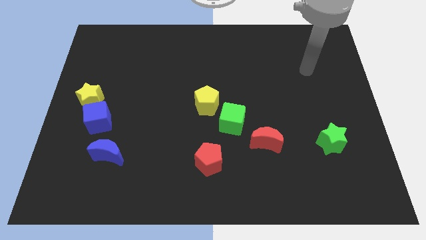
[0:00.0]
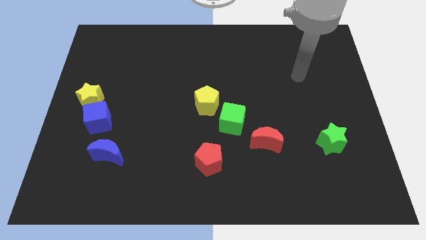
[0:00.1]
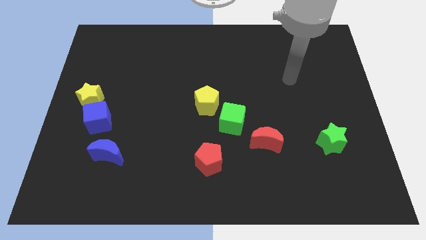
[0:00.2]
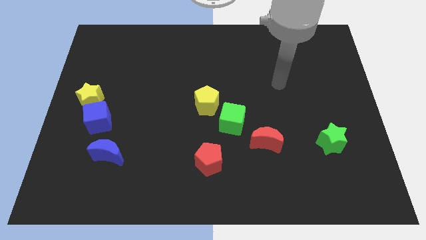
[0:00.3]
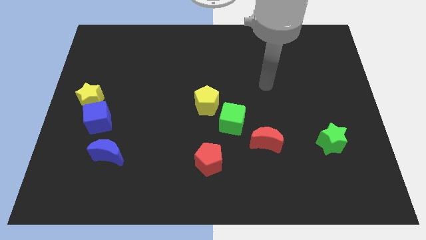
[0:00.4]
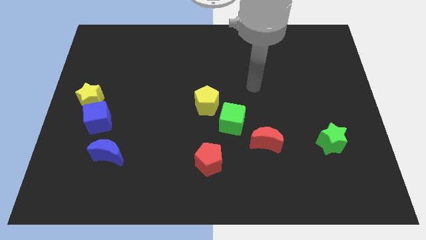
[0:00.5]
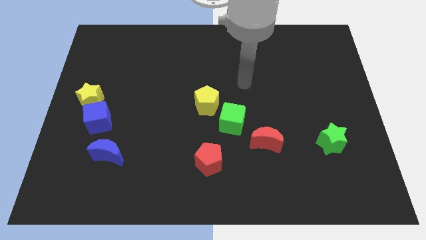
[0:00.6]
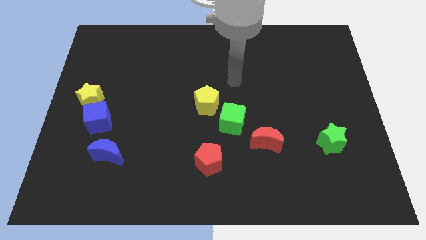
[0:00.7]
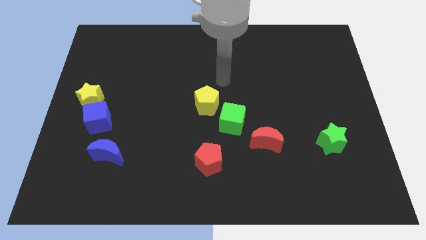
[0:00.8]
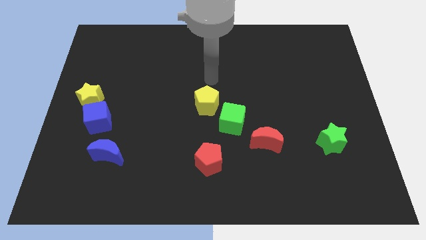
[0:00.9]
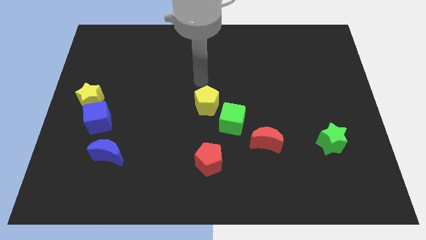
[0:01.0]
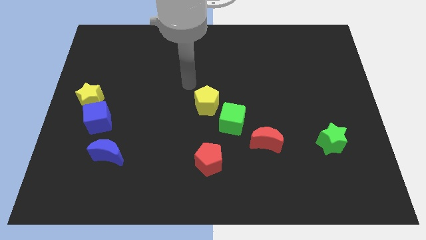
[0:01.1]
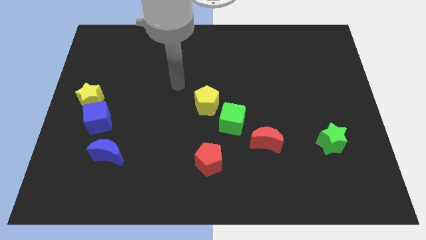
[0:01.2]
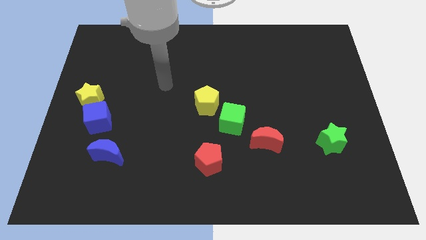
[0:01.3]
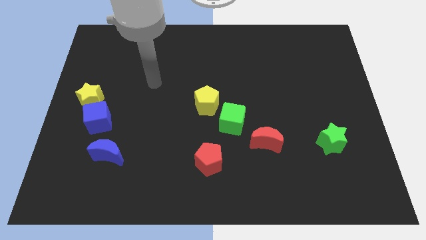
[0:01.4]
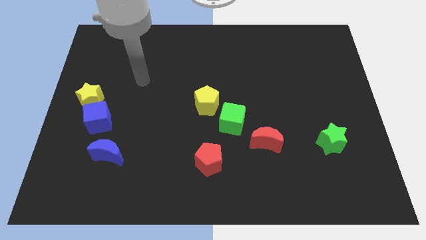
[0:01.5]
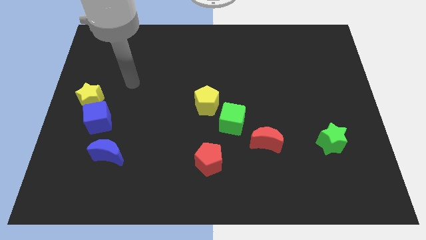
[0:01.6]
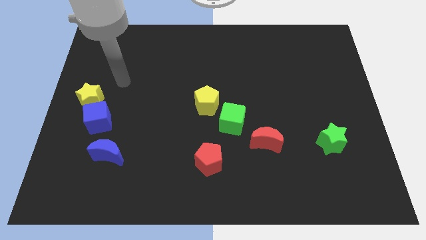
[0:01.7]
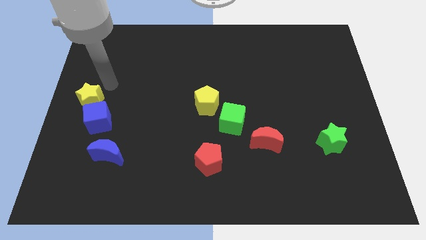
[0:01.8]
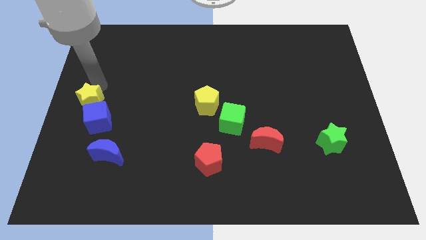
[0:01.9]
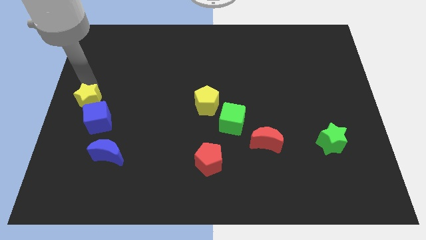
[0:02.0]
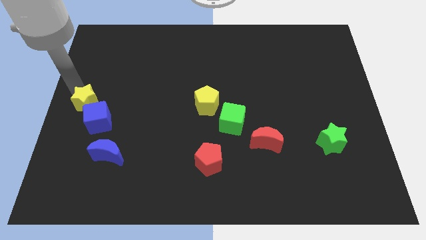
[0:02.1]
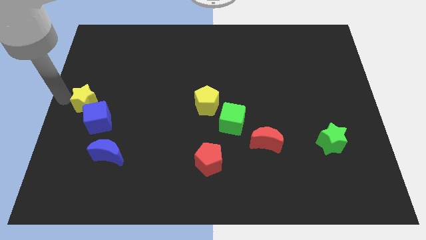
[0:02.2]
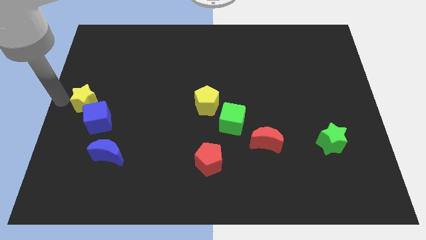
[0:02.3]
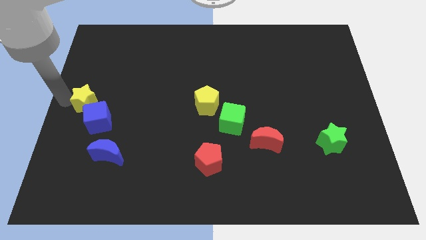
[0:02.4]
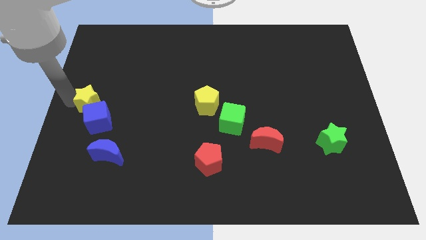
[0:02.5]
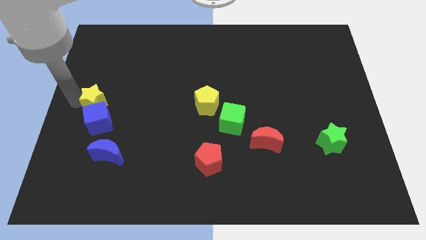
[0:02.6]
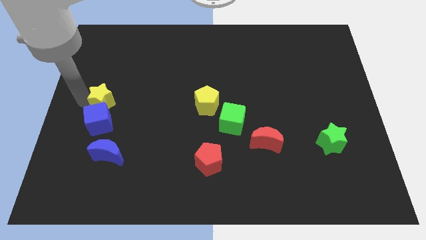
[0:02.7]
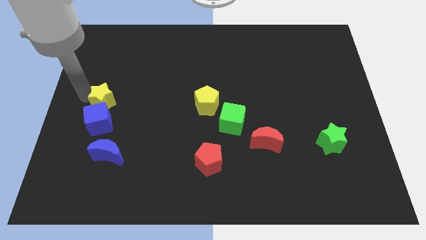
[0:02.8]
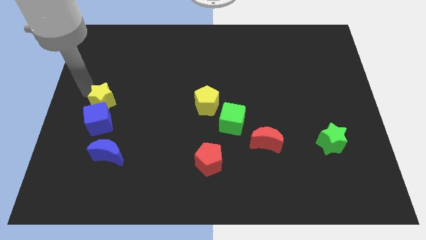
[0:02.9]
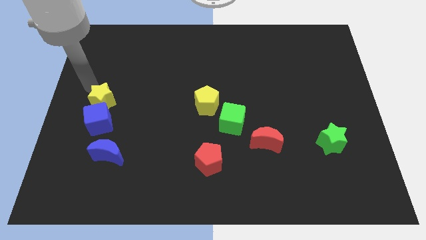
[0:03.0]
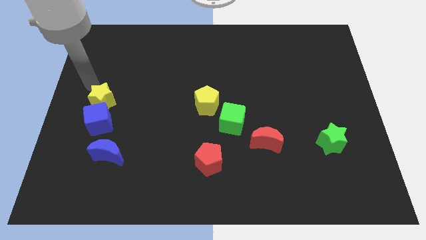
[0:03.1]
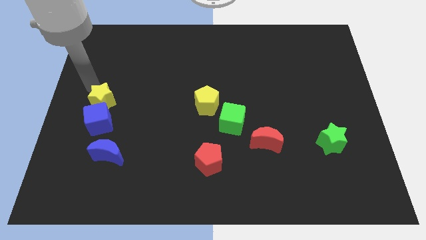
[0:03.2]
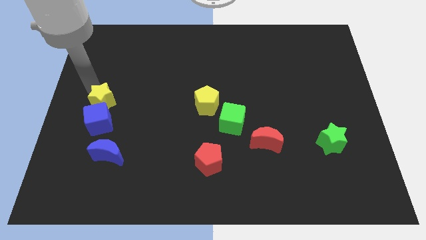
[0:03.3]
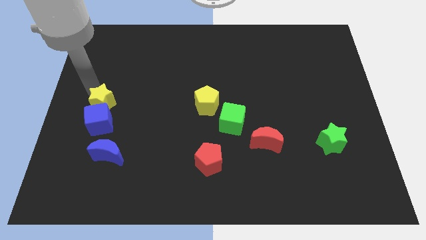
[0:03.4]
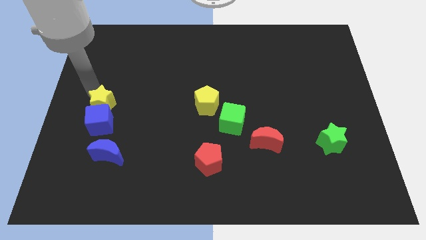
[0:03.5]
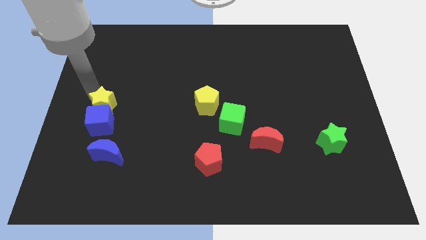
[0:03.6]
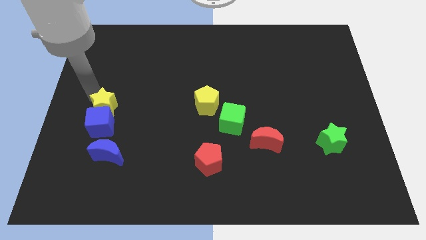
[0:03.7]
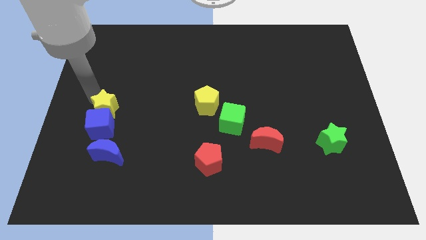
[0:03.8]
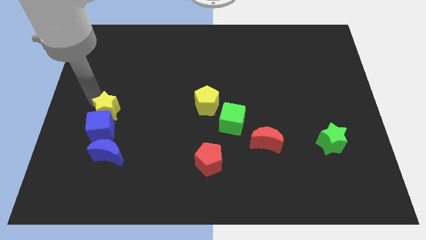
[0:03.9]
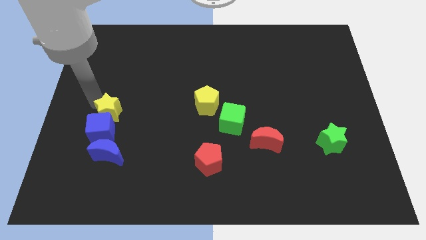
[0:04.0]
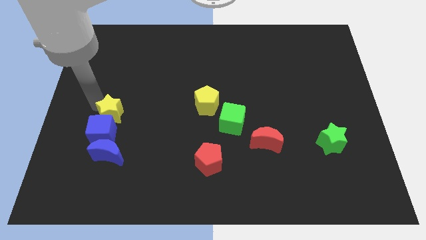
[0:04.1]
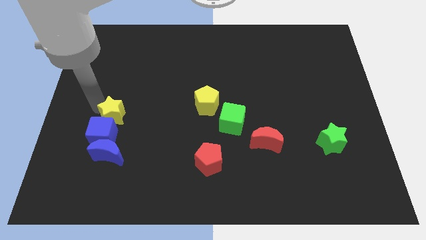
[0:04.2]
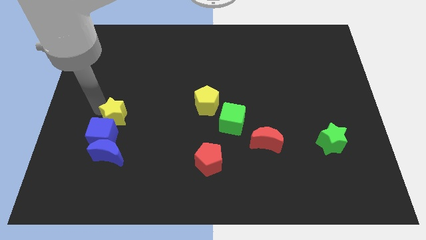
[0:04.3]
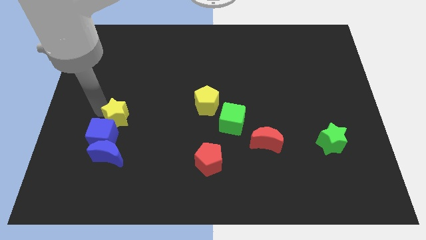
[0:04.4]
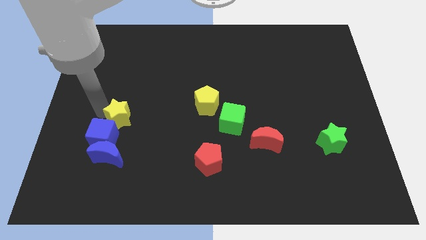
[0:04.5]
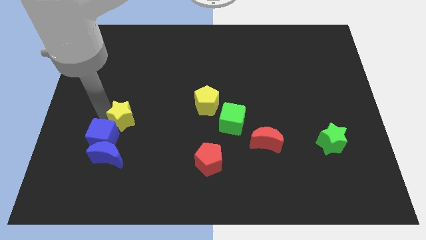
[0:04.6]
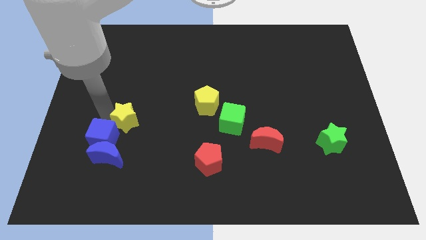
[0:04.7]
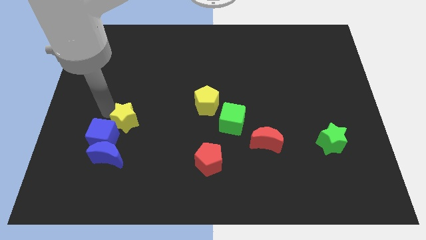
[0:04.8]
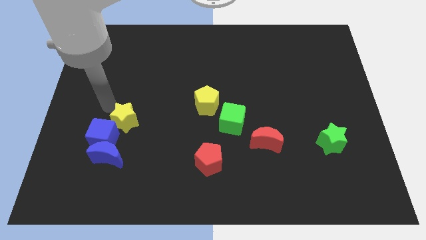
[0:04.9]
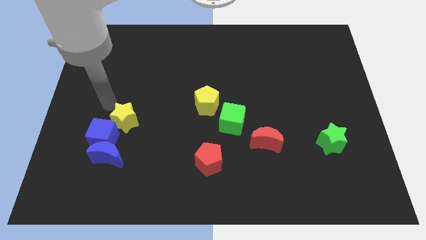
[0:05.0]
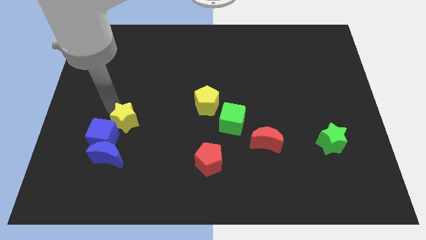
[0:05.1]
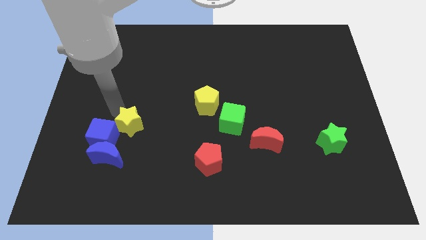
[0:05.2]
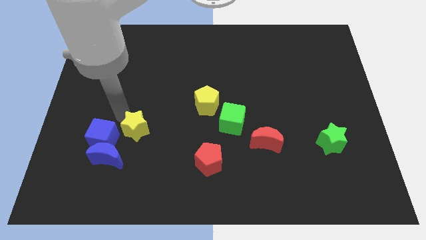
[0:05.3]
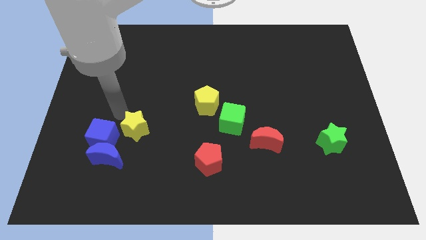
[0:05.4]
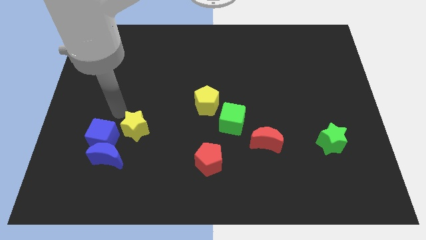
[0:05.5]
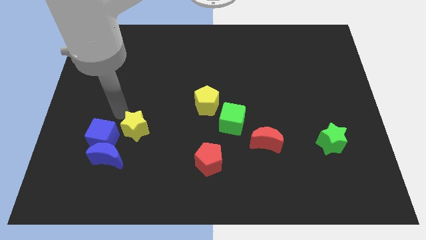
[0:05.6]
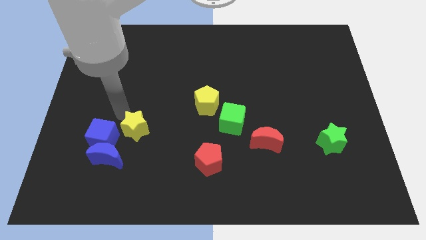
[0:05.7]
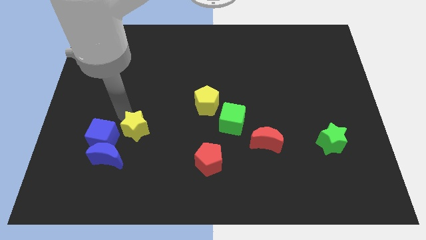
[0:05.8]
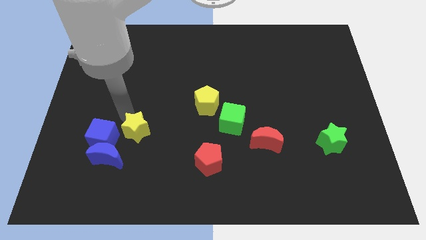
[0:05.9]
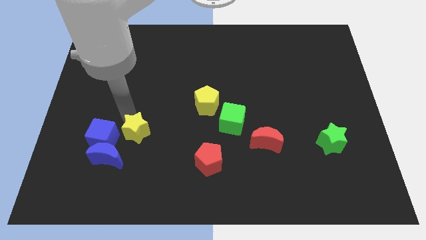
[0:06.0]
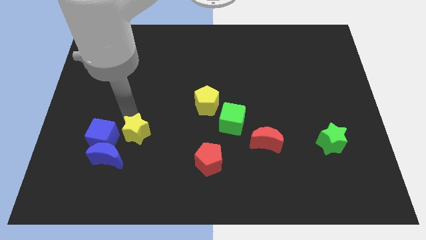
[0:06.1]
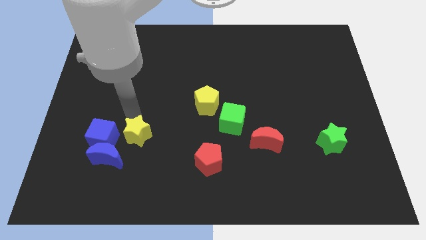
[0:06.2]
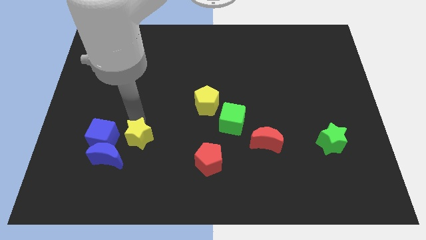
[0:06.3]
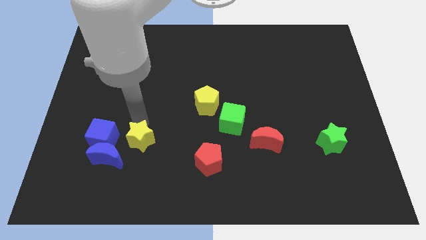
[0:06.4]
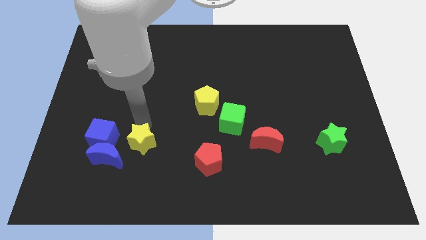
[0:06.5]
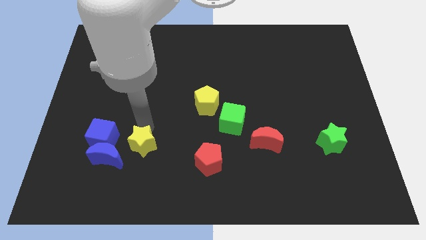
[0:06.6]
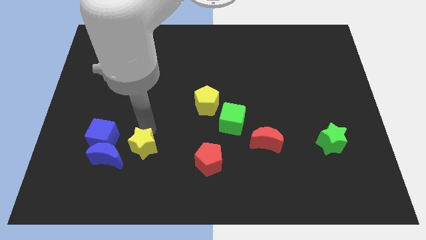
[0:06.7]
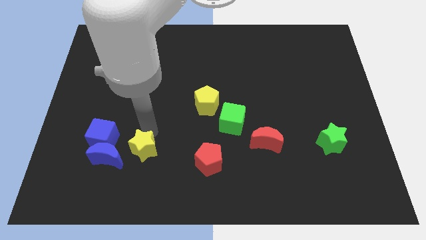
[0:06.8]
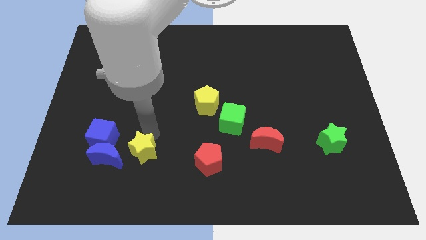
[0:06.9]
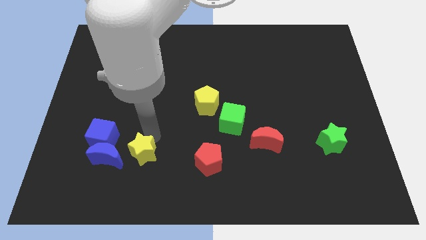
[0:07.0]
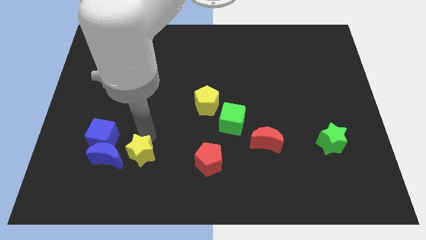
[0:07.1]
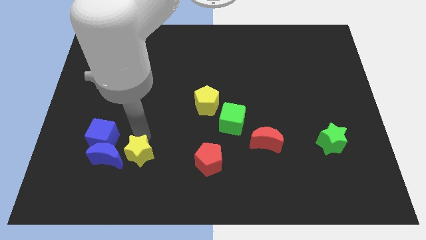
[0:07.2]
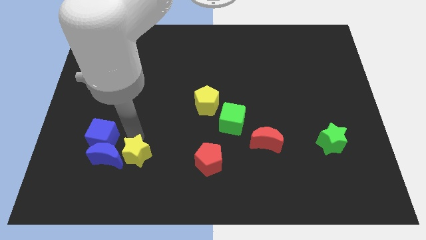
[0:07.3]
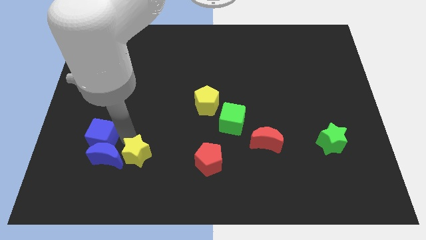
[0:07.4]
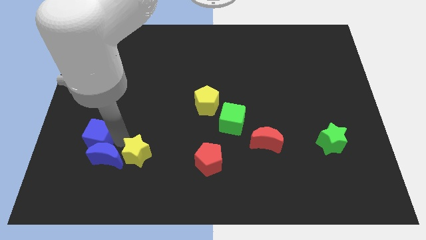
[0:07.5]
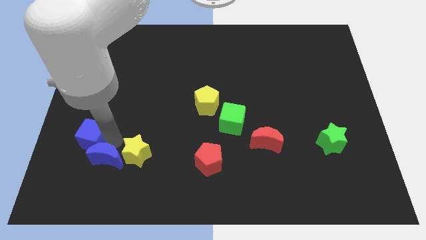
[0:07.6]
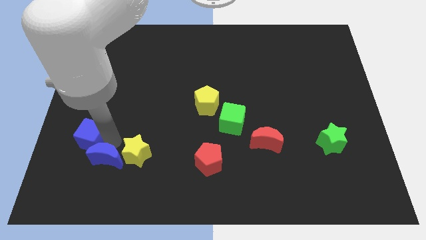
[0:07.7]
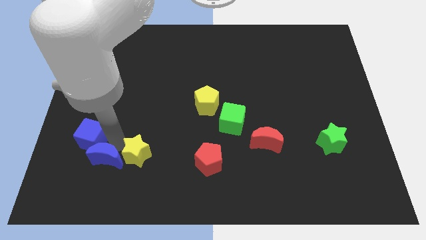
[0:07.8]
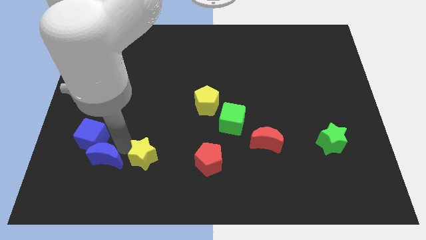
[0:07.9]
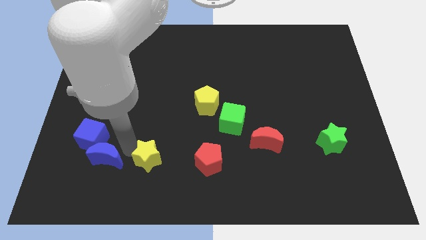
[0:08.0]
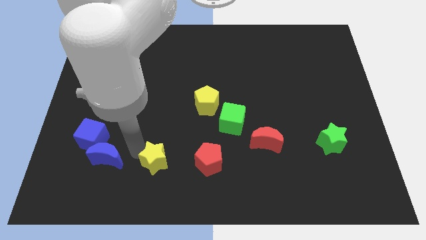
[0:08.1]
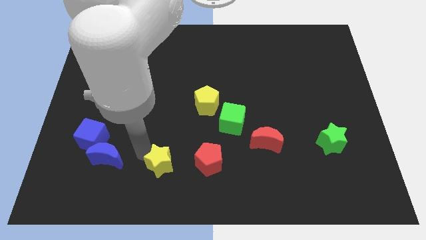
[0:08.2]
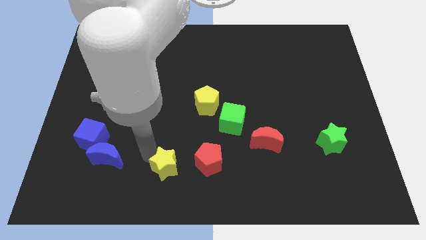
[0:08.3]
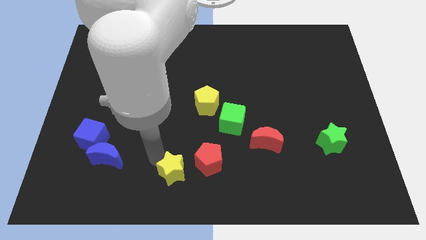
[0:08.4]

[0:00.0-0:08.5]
slide the yellow star to the bottom side
